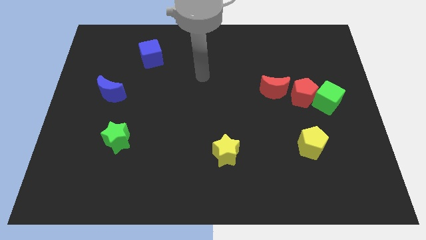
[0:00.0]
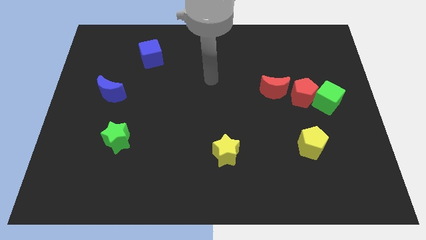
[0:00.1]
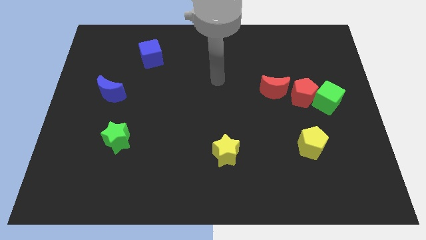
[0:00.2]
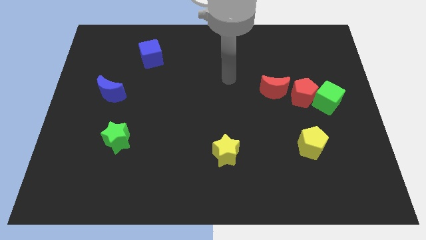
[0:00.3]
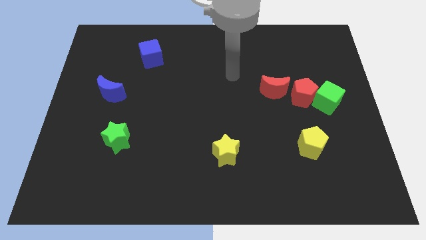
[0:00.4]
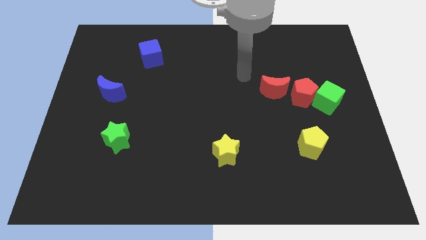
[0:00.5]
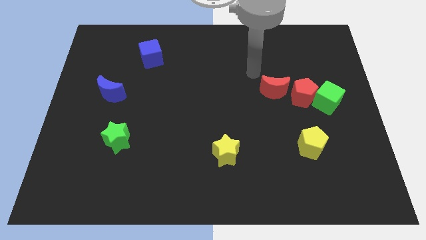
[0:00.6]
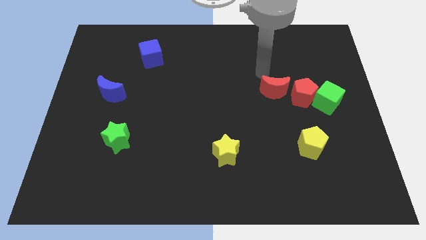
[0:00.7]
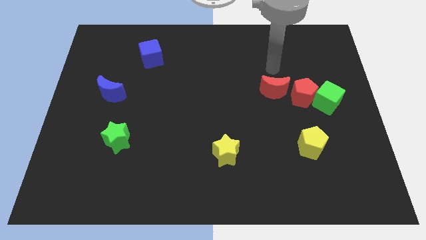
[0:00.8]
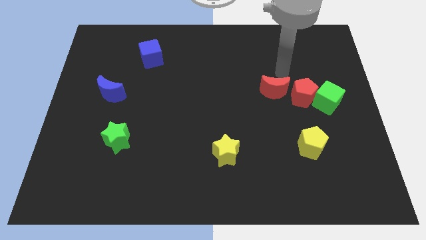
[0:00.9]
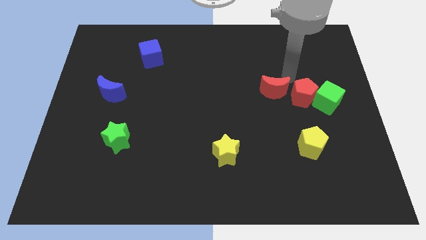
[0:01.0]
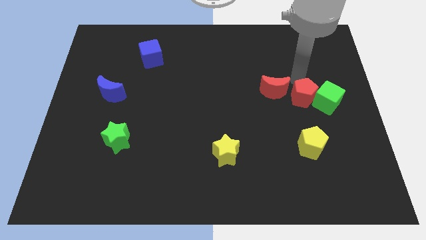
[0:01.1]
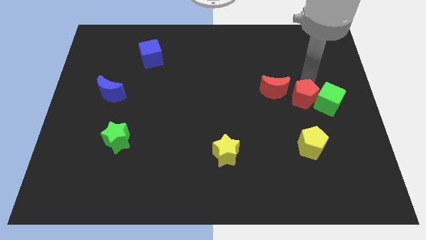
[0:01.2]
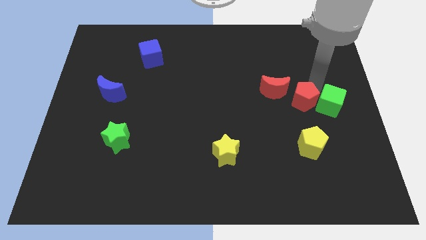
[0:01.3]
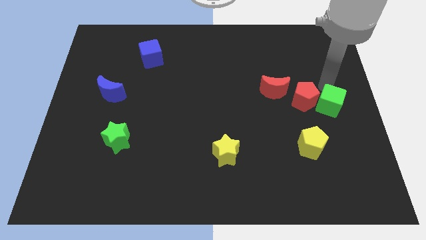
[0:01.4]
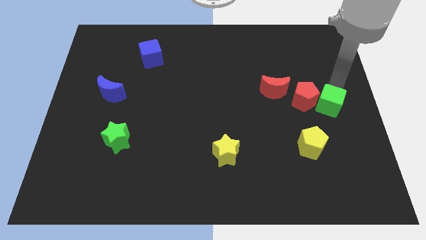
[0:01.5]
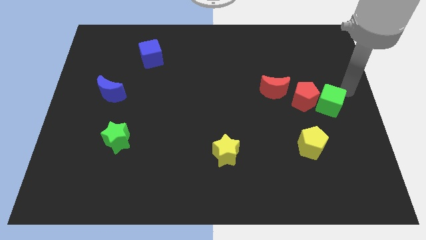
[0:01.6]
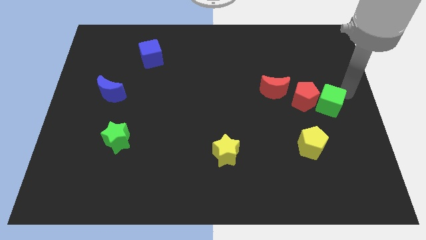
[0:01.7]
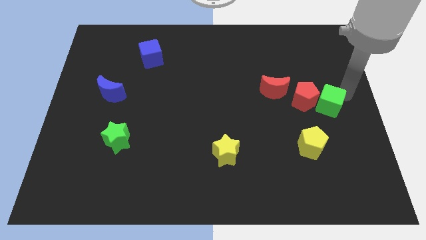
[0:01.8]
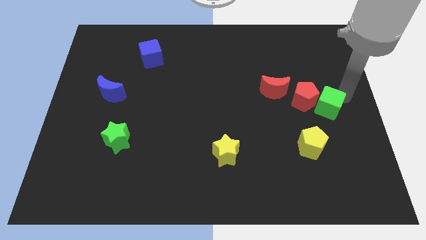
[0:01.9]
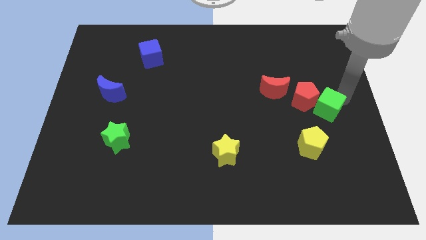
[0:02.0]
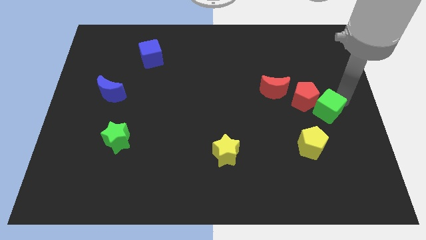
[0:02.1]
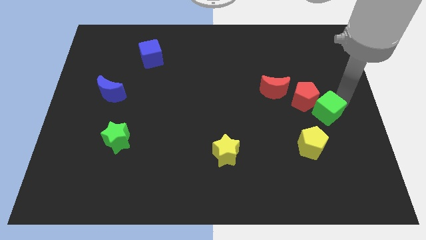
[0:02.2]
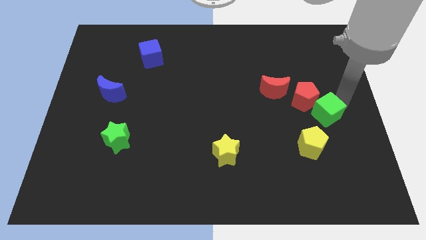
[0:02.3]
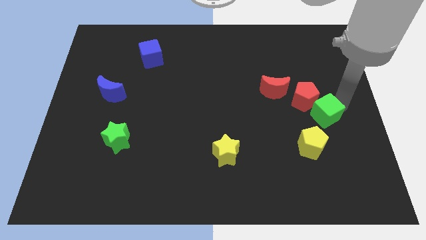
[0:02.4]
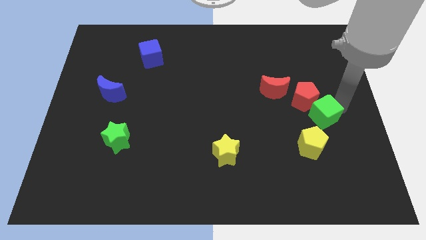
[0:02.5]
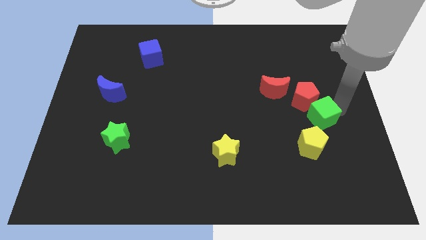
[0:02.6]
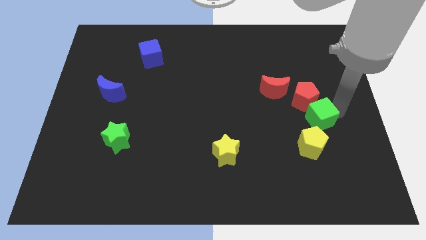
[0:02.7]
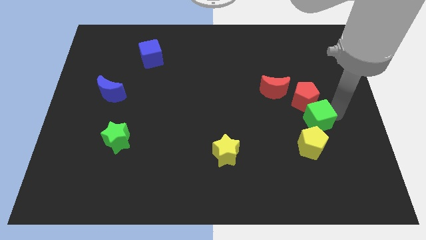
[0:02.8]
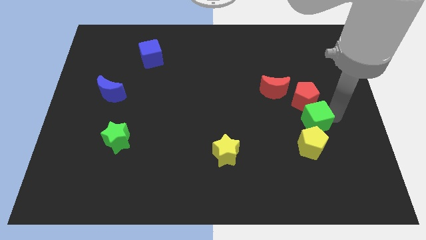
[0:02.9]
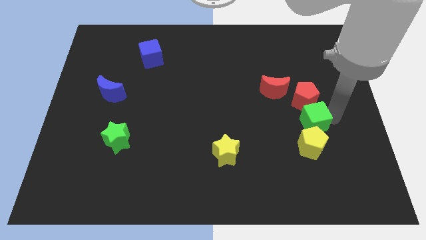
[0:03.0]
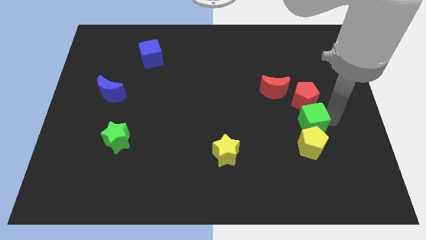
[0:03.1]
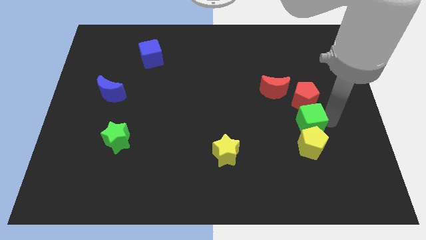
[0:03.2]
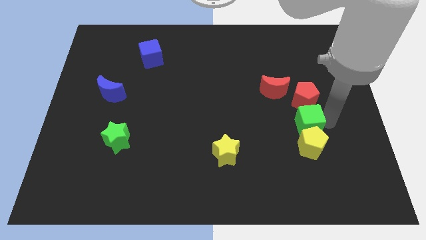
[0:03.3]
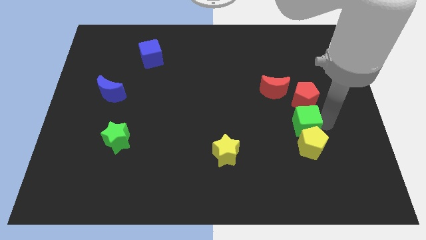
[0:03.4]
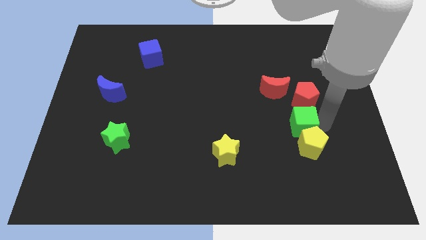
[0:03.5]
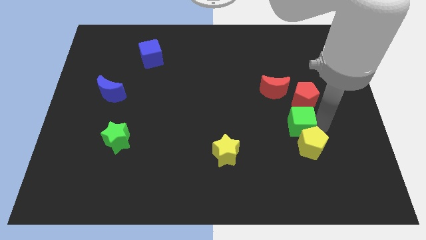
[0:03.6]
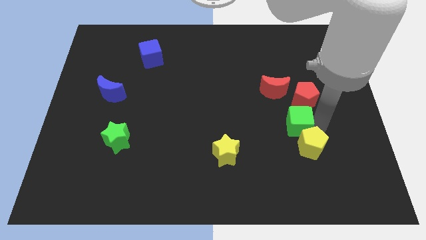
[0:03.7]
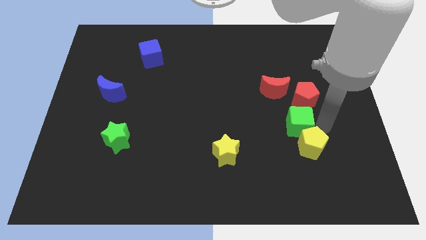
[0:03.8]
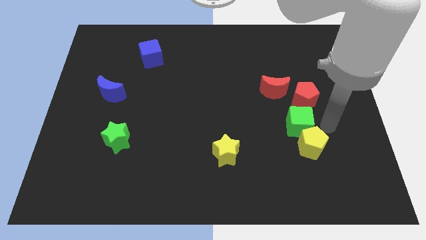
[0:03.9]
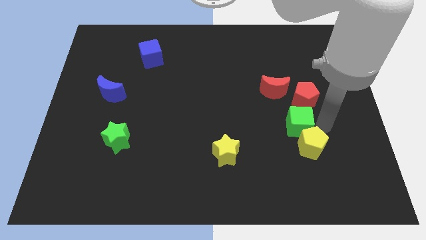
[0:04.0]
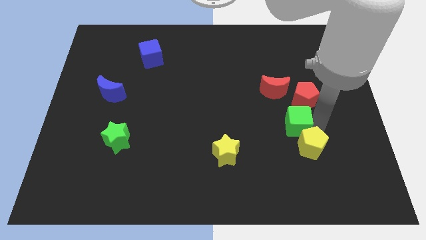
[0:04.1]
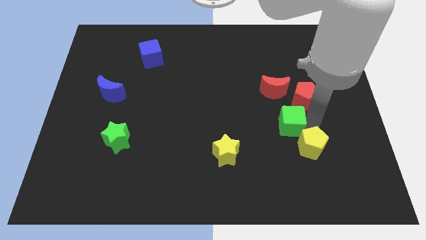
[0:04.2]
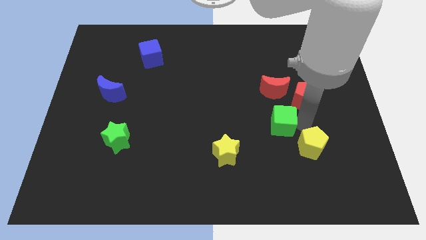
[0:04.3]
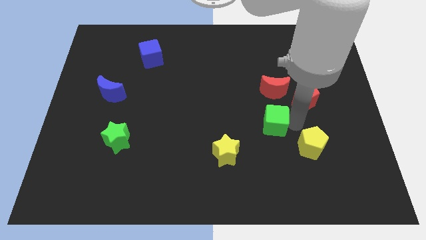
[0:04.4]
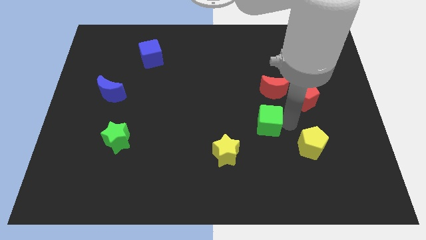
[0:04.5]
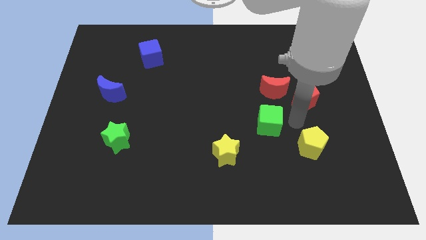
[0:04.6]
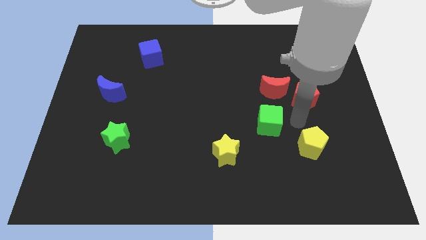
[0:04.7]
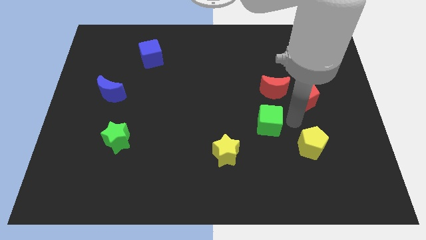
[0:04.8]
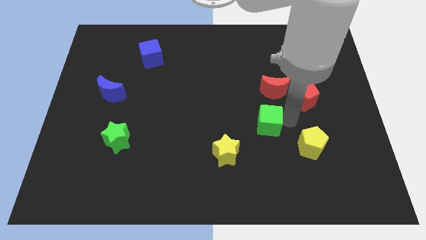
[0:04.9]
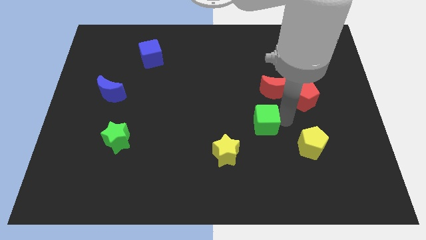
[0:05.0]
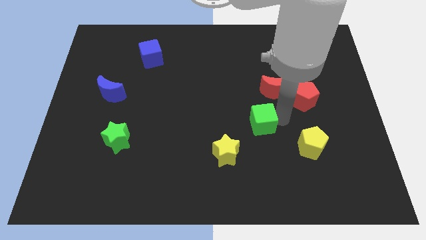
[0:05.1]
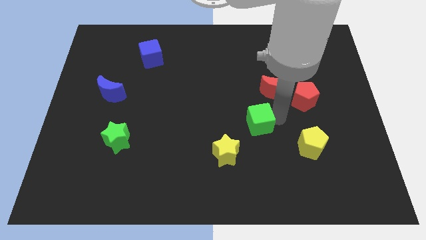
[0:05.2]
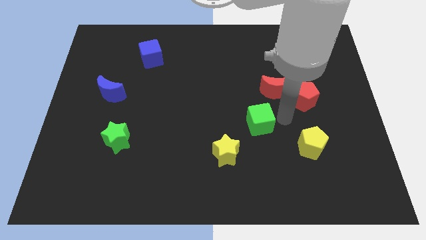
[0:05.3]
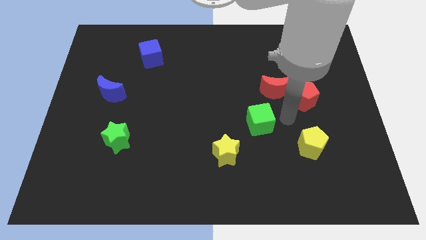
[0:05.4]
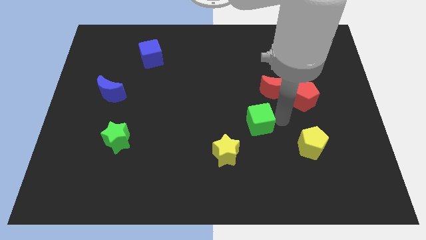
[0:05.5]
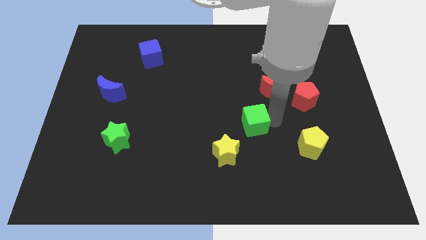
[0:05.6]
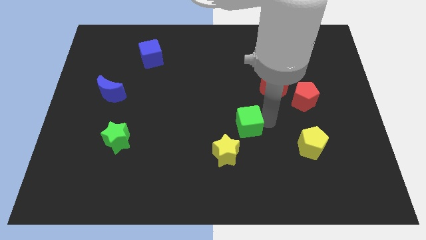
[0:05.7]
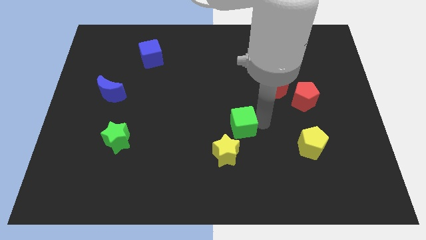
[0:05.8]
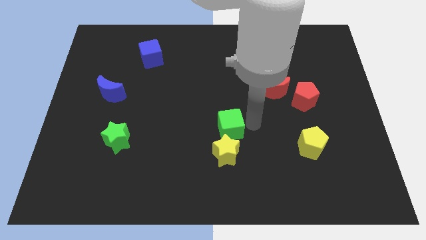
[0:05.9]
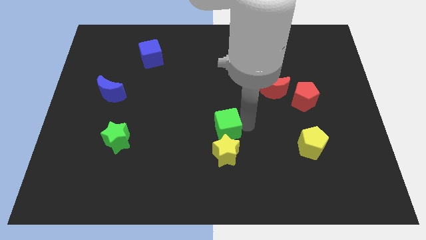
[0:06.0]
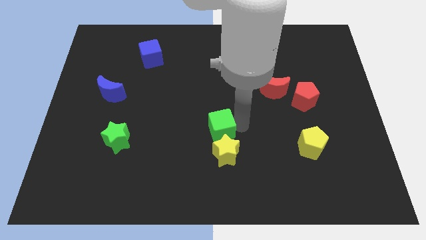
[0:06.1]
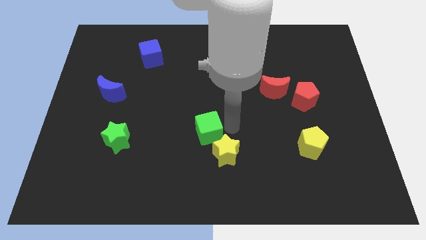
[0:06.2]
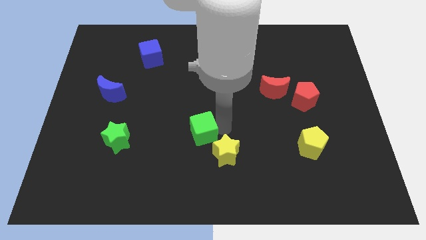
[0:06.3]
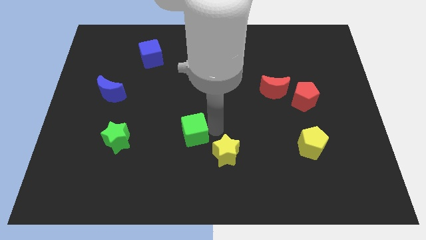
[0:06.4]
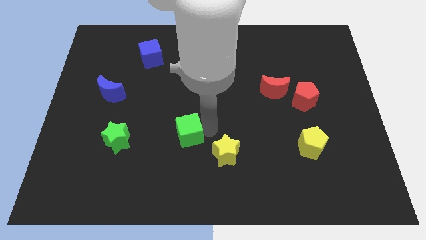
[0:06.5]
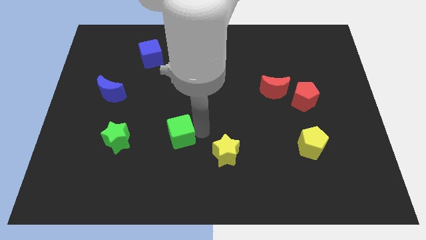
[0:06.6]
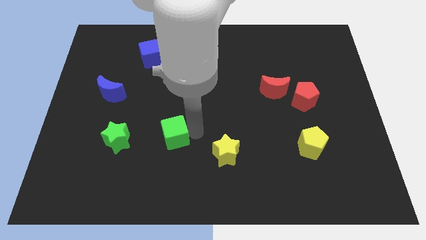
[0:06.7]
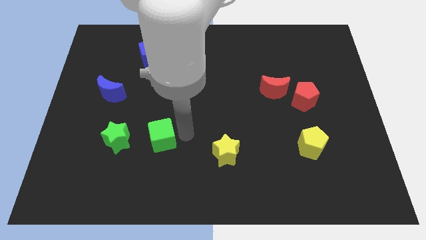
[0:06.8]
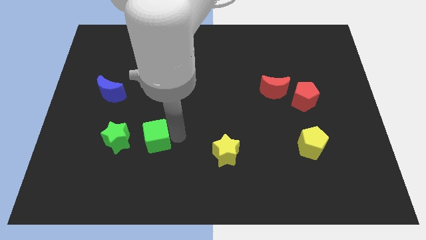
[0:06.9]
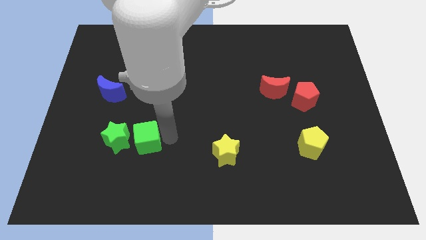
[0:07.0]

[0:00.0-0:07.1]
move the green cube close to the green star

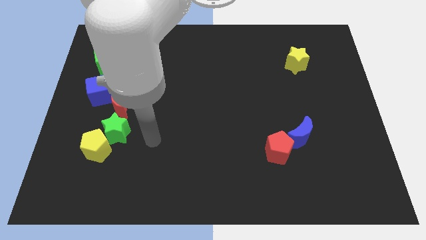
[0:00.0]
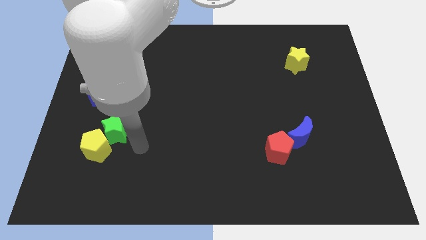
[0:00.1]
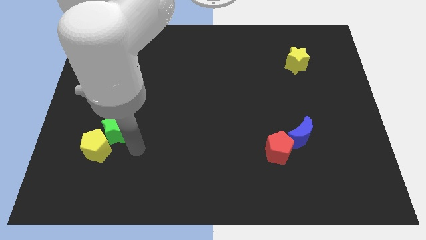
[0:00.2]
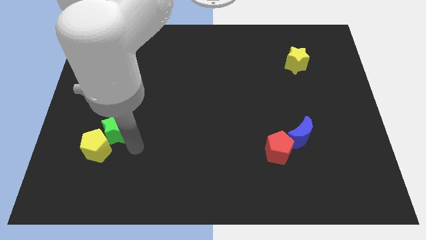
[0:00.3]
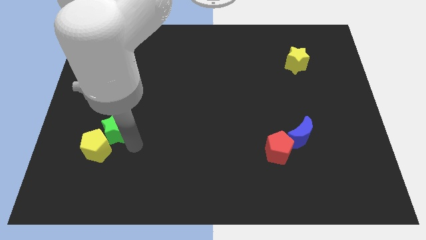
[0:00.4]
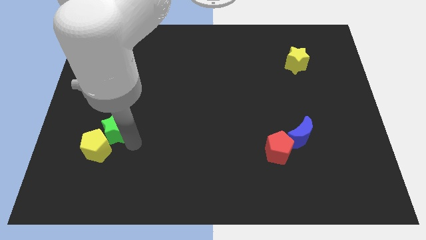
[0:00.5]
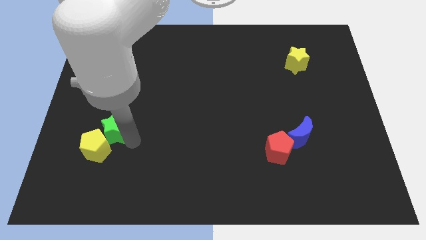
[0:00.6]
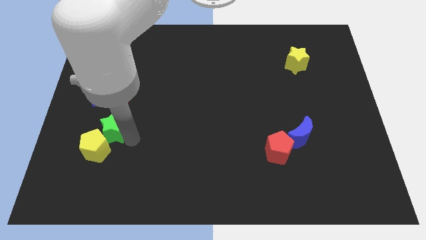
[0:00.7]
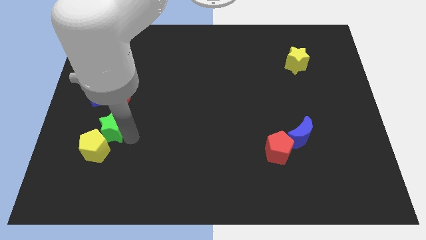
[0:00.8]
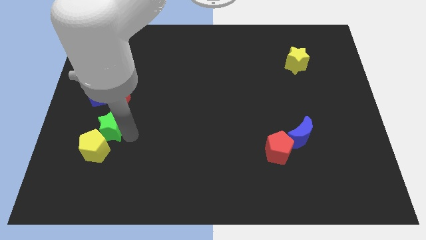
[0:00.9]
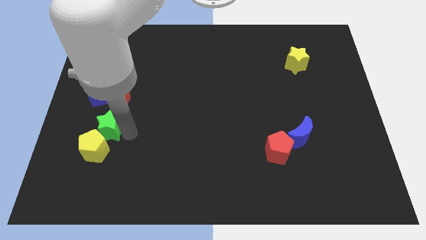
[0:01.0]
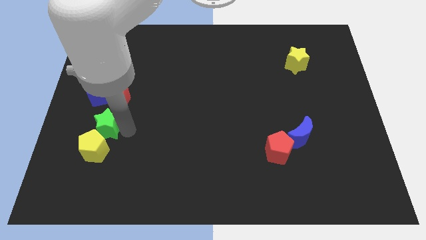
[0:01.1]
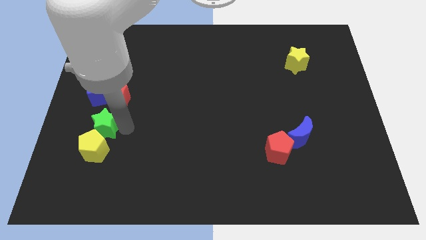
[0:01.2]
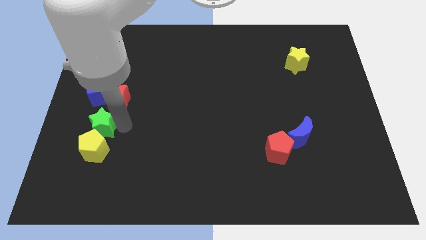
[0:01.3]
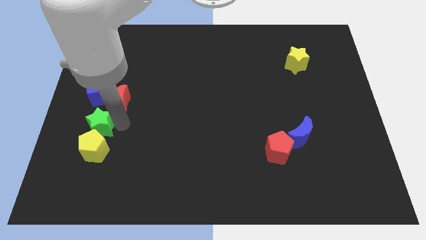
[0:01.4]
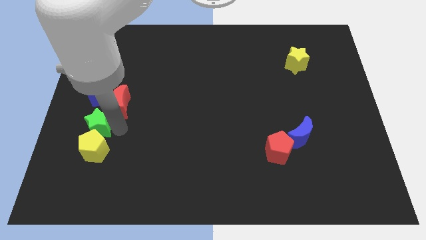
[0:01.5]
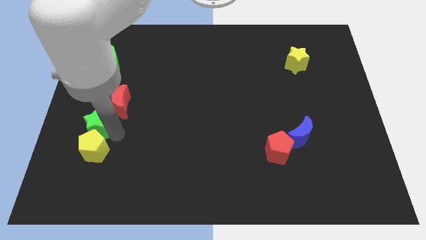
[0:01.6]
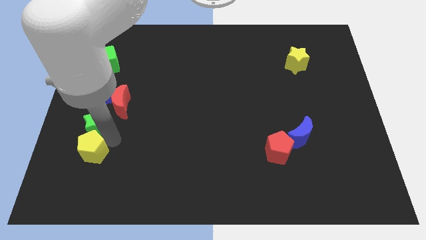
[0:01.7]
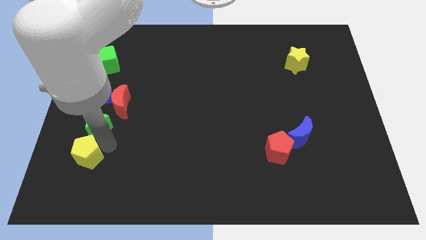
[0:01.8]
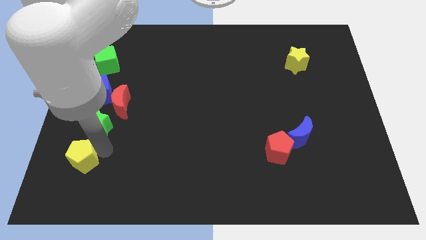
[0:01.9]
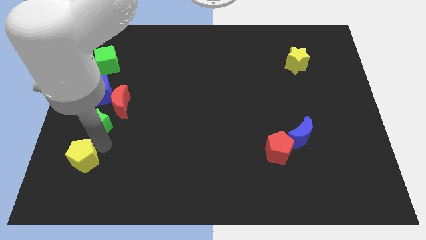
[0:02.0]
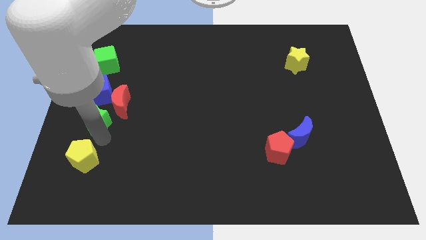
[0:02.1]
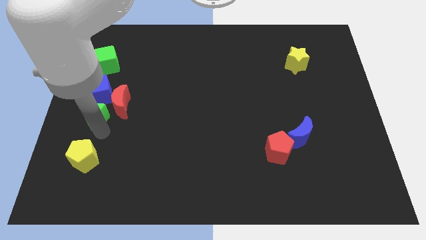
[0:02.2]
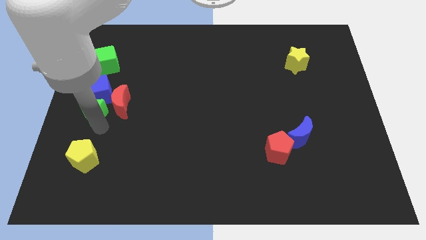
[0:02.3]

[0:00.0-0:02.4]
push the green star close to the blue cube
